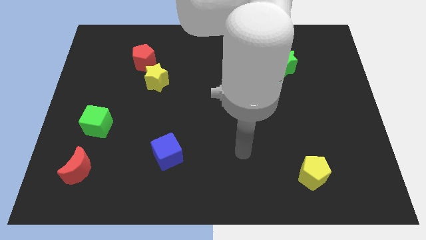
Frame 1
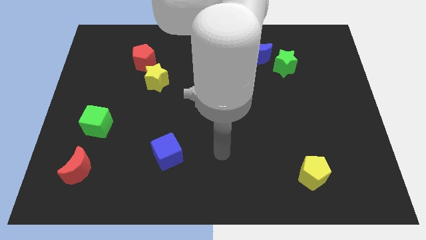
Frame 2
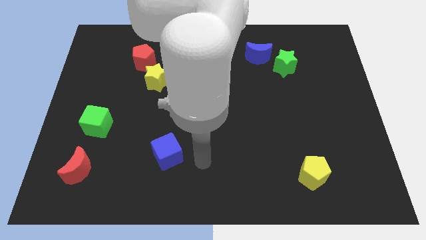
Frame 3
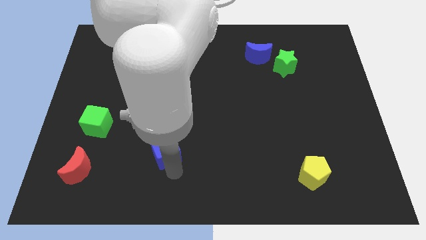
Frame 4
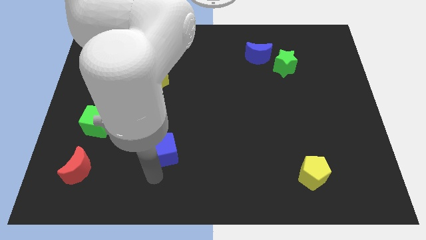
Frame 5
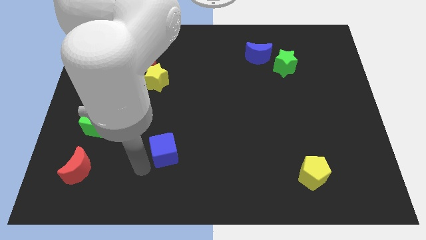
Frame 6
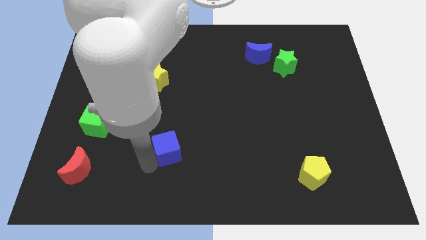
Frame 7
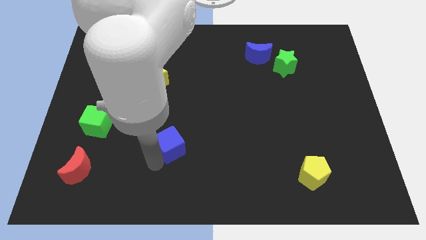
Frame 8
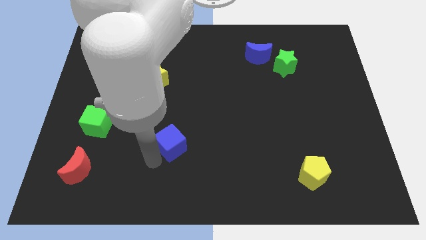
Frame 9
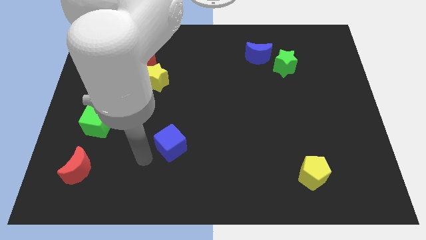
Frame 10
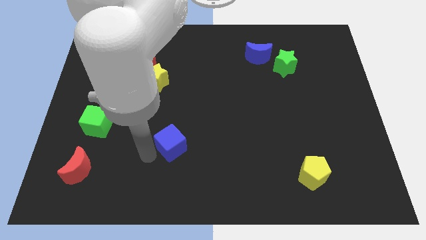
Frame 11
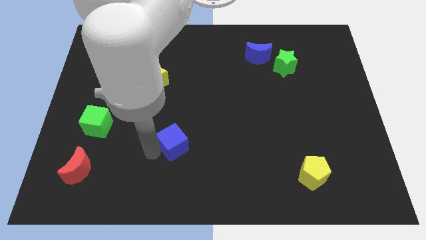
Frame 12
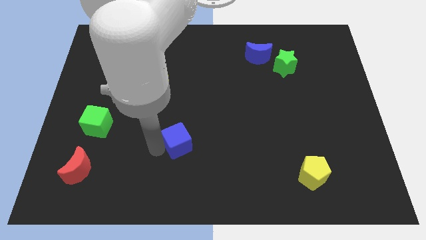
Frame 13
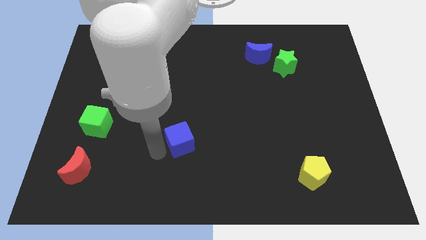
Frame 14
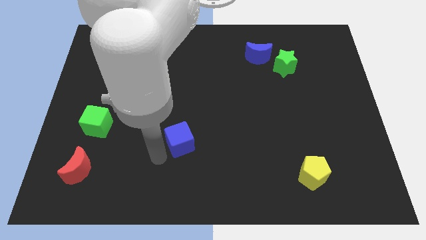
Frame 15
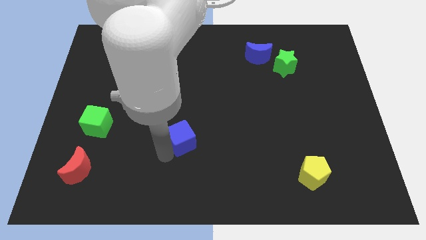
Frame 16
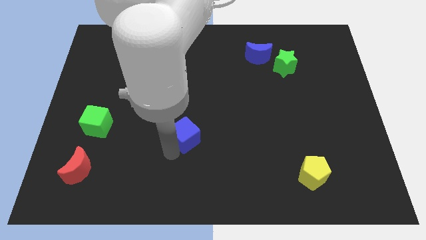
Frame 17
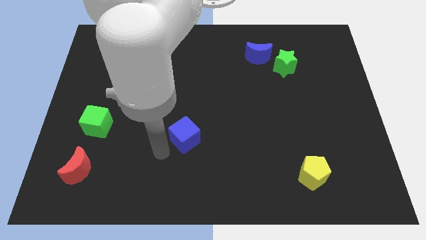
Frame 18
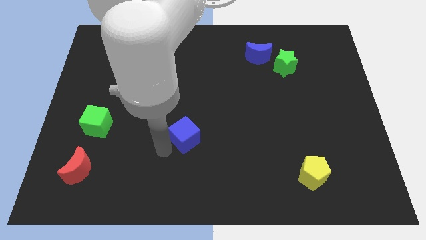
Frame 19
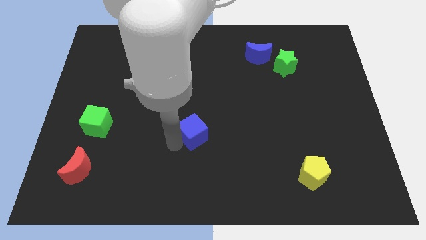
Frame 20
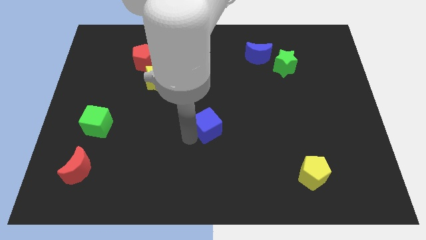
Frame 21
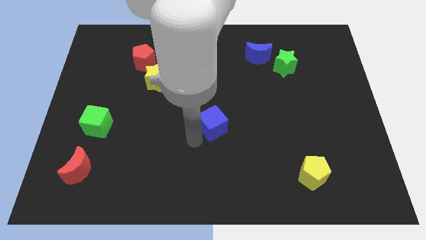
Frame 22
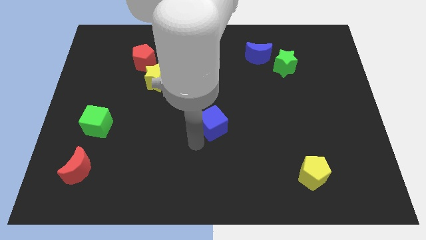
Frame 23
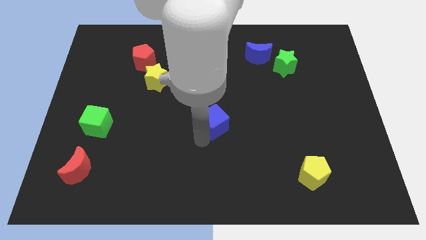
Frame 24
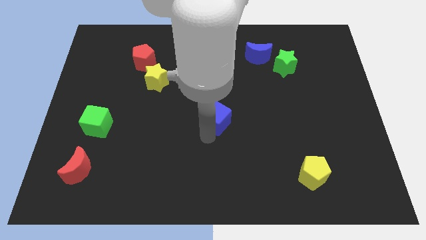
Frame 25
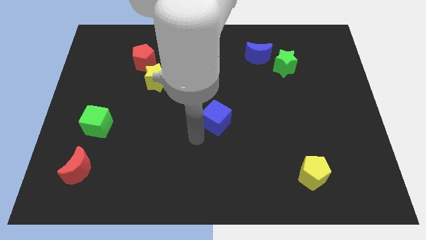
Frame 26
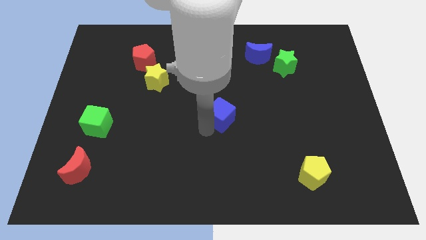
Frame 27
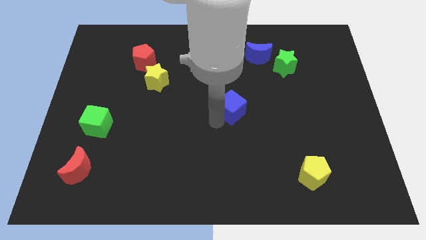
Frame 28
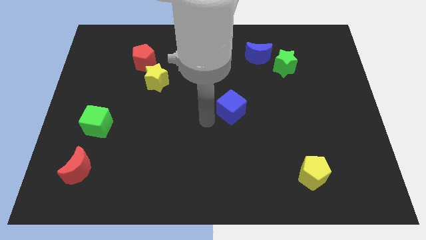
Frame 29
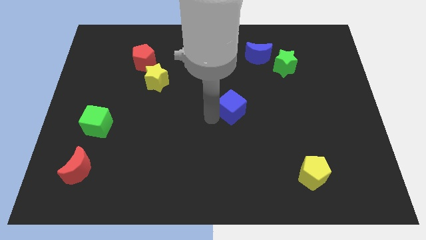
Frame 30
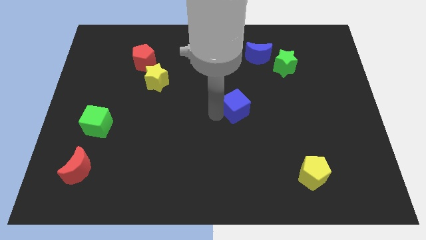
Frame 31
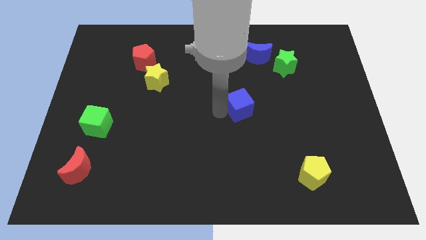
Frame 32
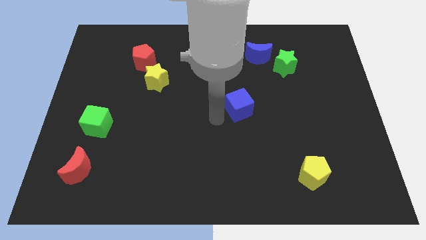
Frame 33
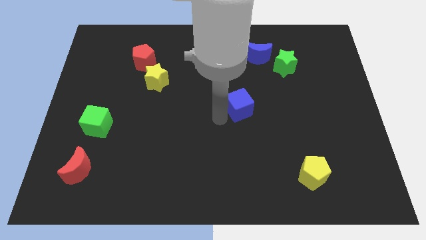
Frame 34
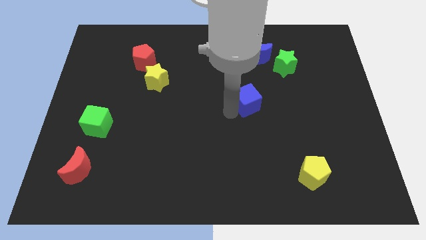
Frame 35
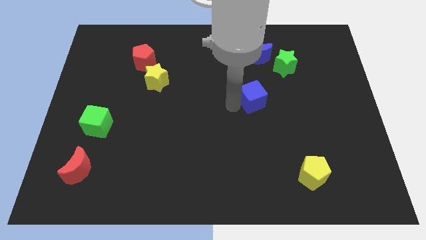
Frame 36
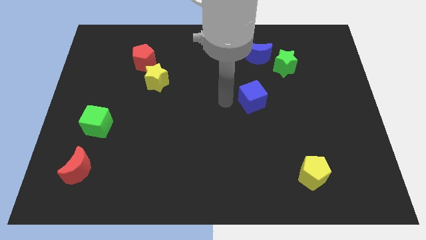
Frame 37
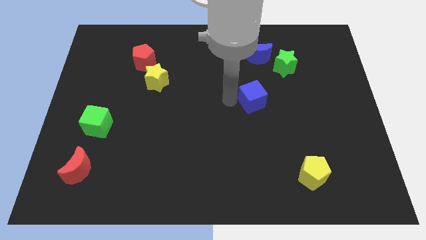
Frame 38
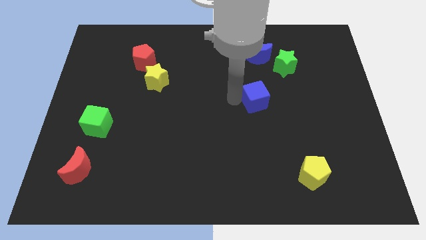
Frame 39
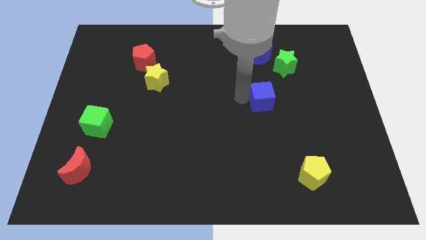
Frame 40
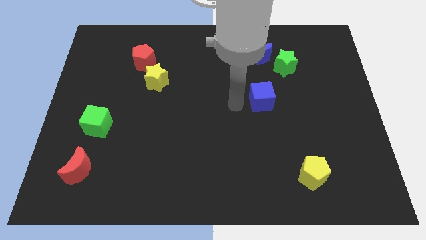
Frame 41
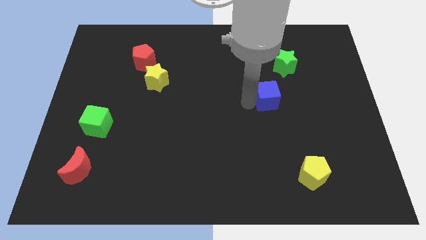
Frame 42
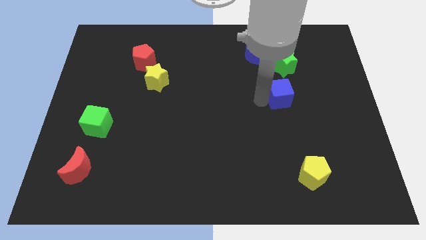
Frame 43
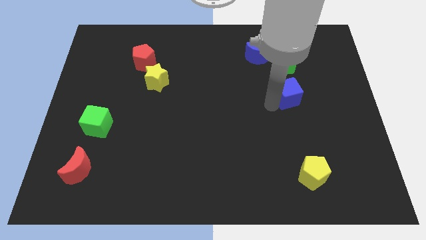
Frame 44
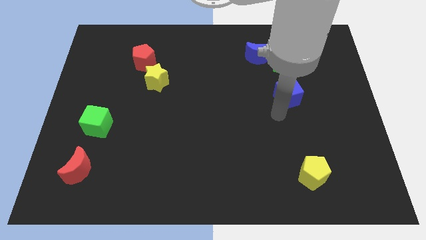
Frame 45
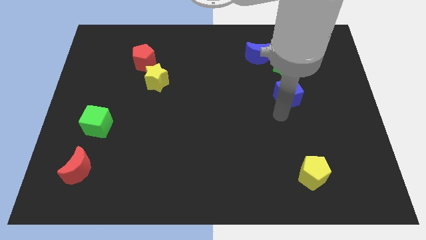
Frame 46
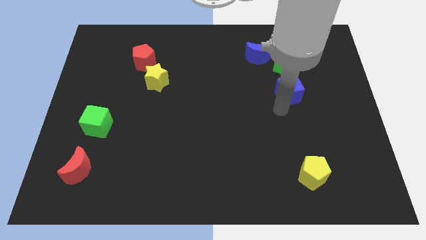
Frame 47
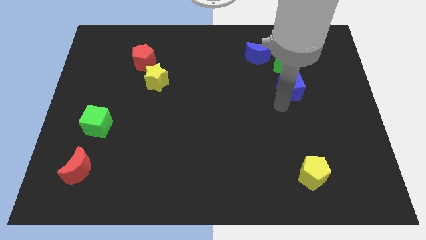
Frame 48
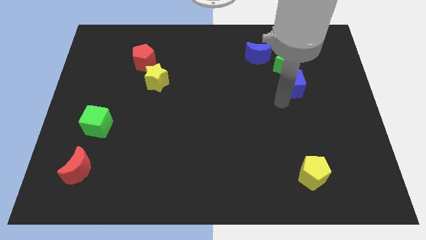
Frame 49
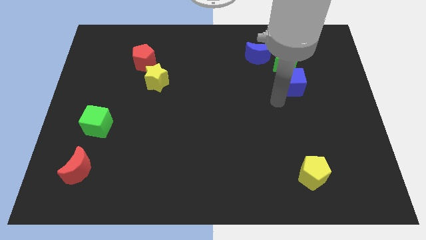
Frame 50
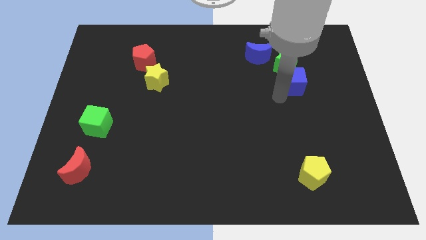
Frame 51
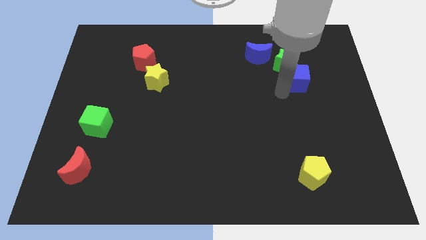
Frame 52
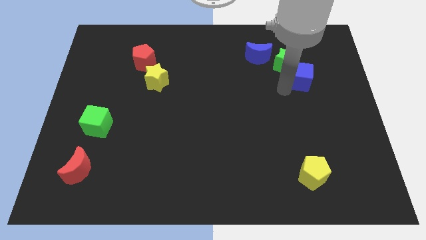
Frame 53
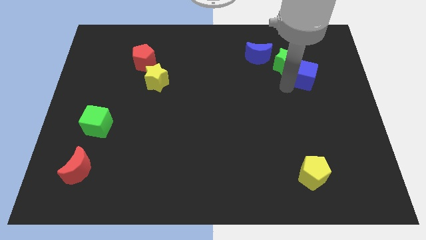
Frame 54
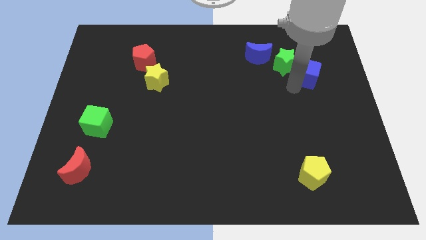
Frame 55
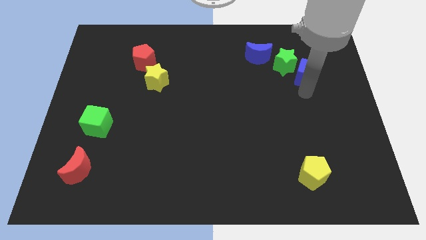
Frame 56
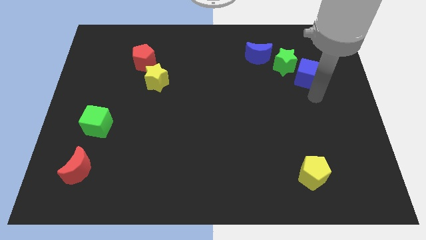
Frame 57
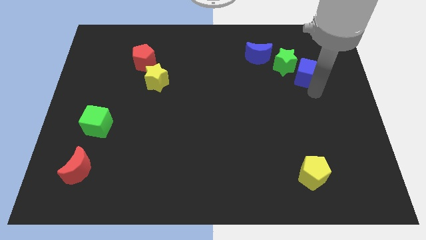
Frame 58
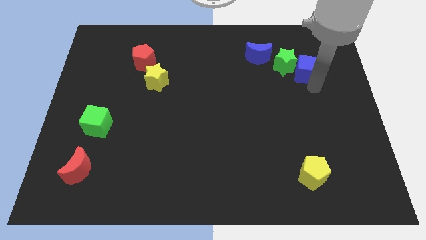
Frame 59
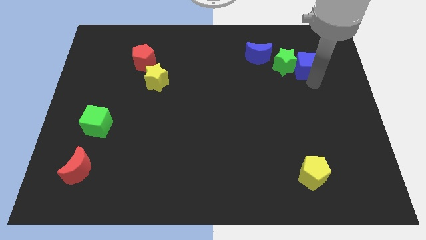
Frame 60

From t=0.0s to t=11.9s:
slide the blue cube to the right side of the blue moon

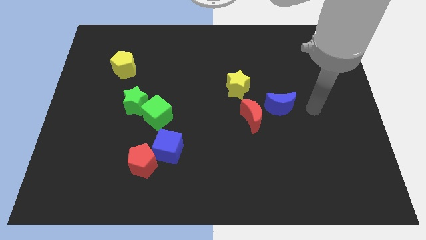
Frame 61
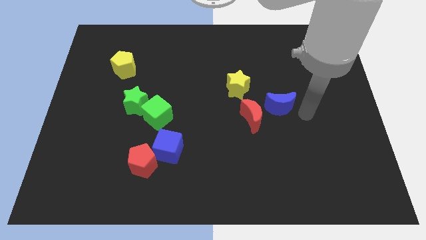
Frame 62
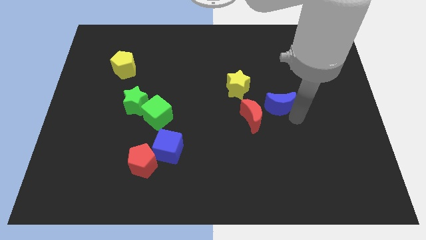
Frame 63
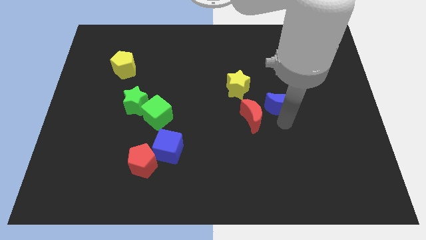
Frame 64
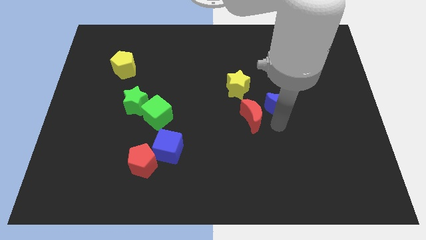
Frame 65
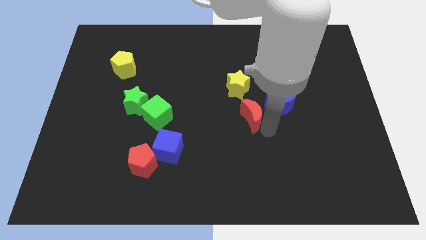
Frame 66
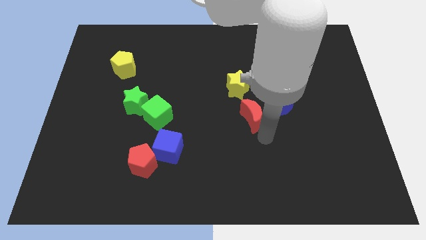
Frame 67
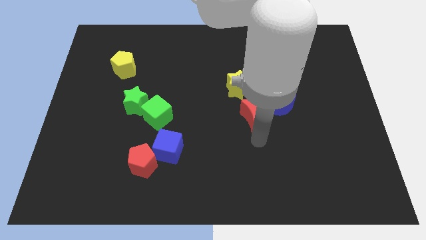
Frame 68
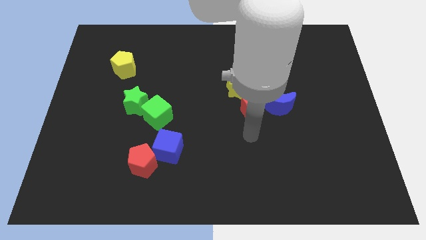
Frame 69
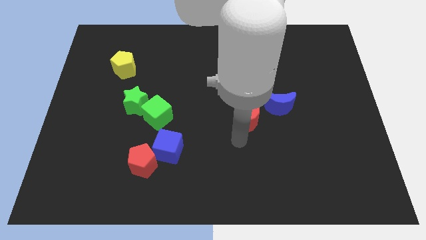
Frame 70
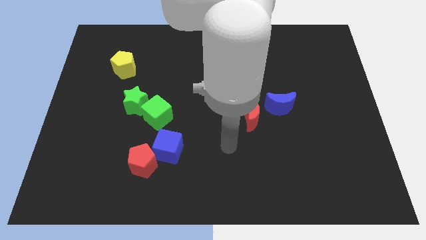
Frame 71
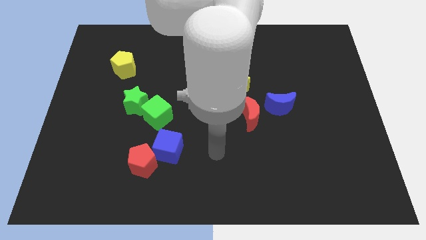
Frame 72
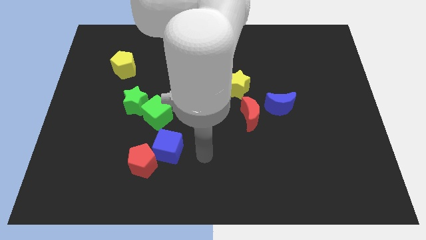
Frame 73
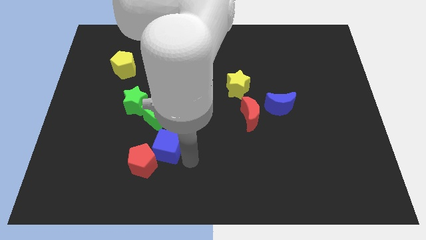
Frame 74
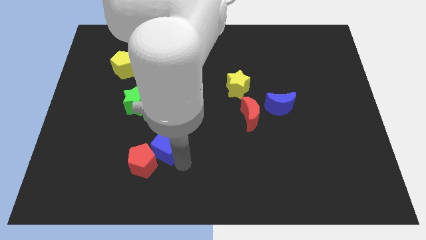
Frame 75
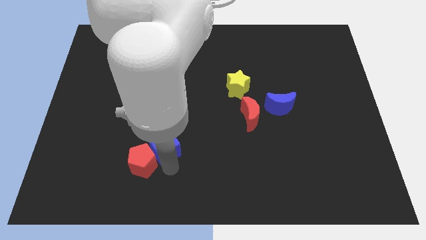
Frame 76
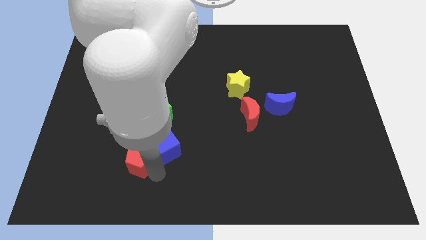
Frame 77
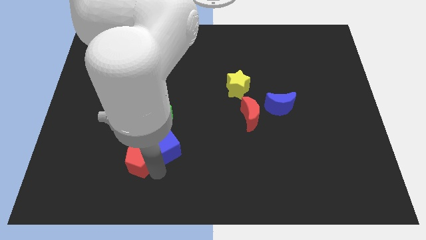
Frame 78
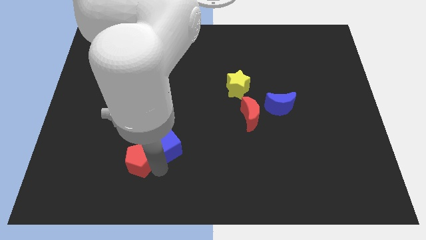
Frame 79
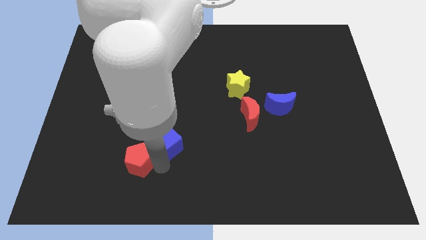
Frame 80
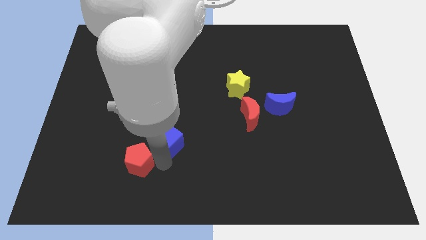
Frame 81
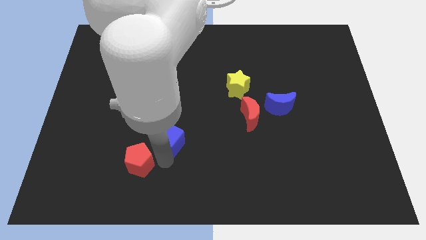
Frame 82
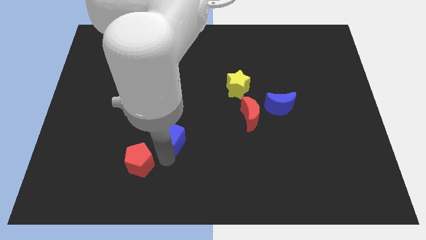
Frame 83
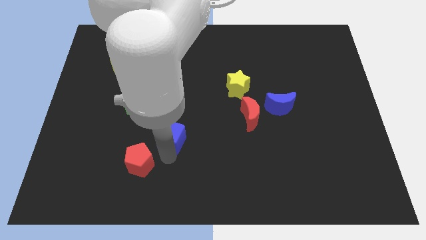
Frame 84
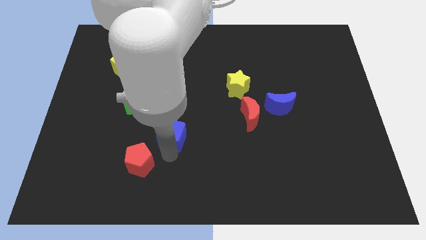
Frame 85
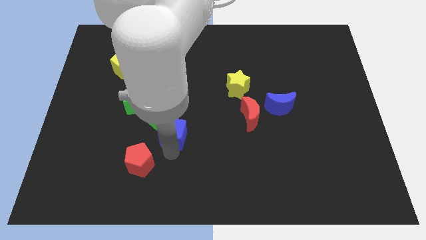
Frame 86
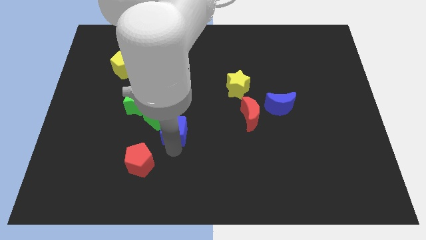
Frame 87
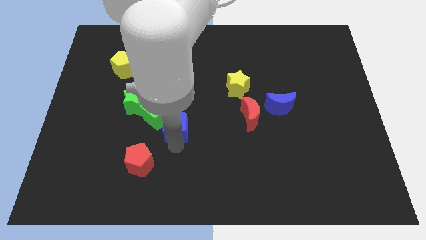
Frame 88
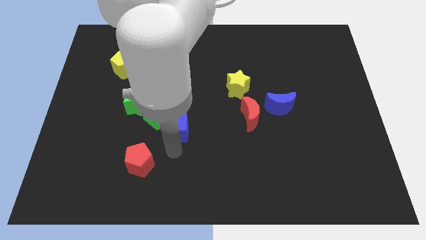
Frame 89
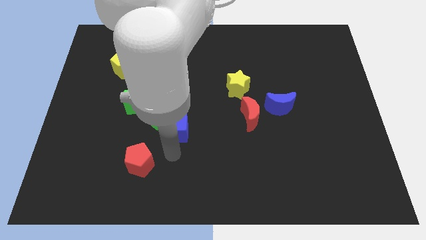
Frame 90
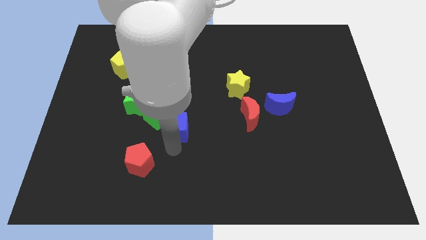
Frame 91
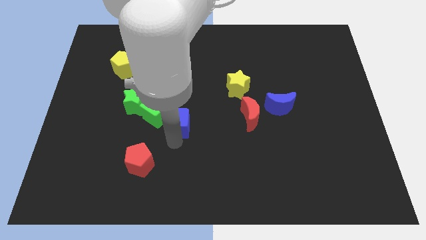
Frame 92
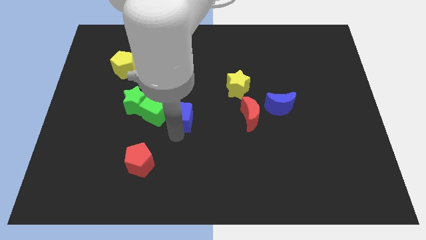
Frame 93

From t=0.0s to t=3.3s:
slide the blue cube to the right of the green star
